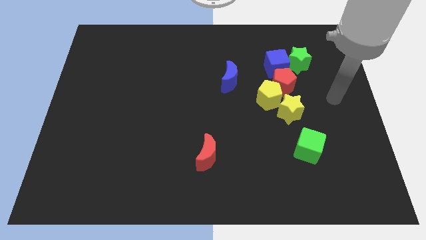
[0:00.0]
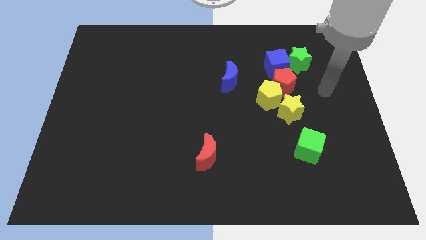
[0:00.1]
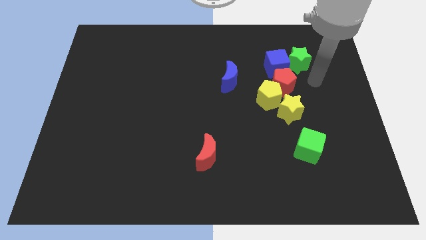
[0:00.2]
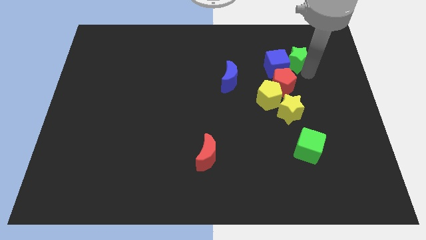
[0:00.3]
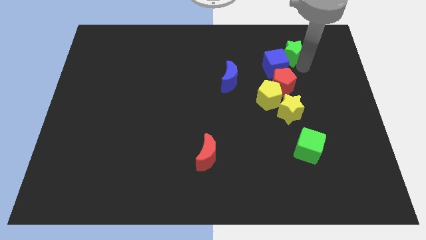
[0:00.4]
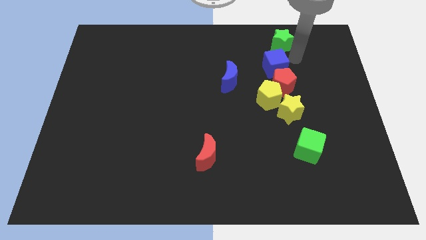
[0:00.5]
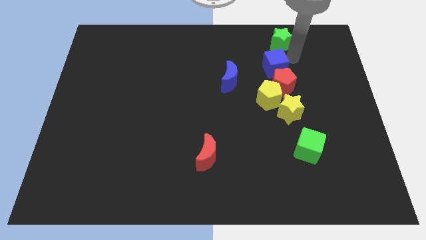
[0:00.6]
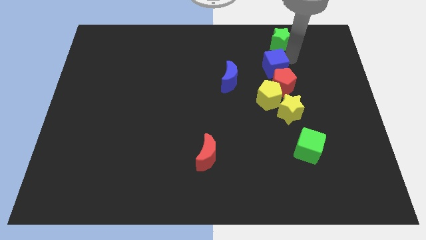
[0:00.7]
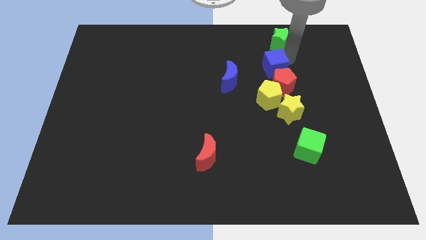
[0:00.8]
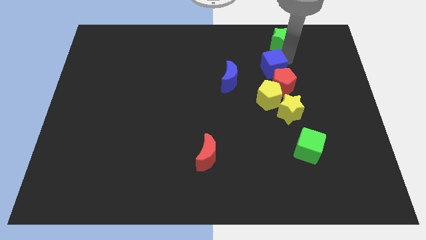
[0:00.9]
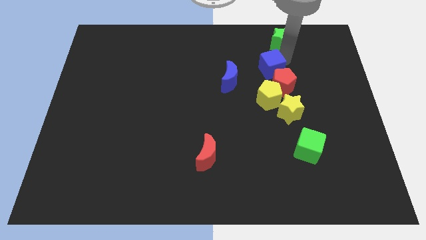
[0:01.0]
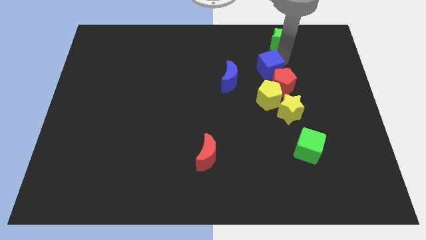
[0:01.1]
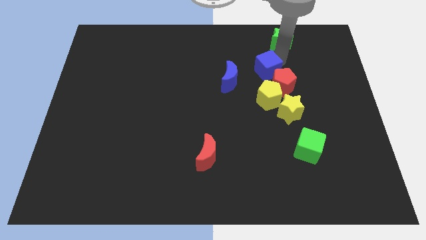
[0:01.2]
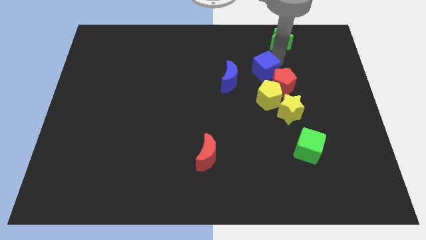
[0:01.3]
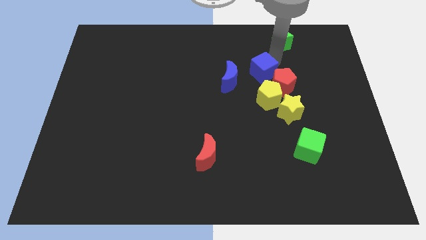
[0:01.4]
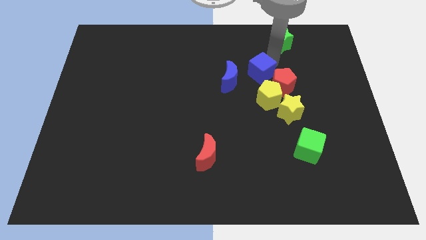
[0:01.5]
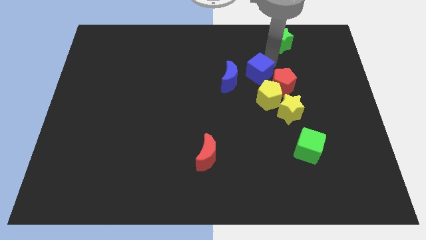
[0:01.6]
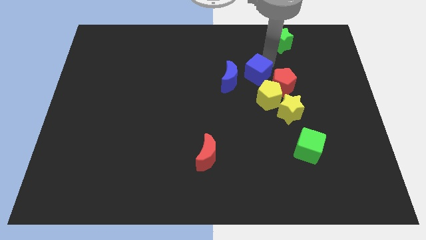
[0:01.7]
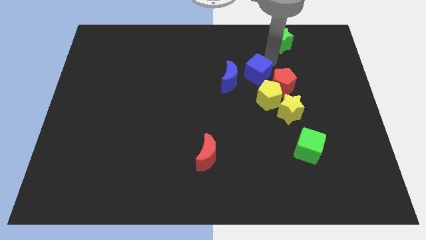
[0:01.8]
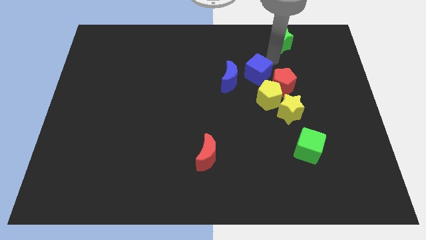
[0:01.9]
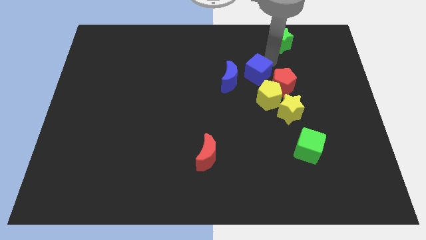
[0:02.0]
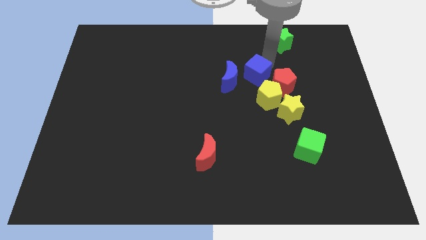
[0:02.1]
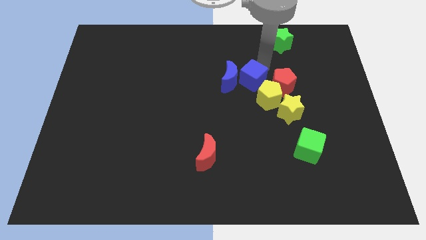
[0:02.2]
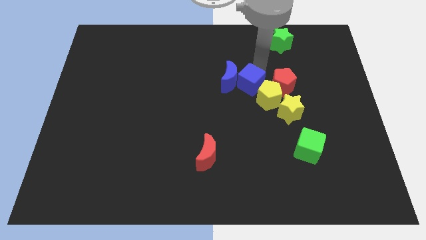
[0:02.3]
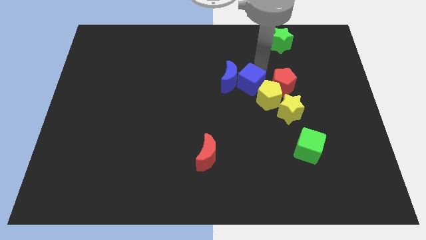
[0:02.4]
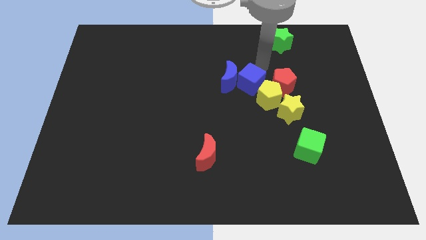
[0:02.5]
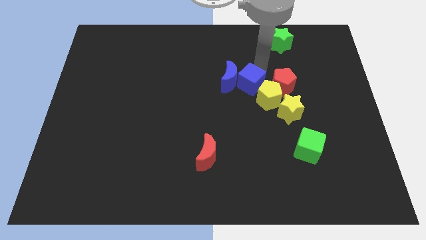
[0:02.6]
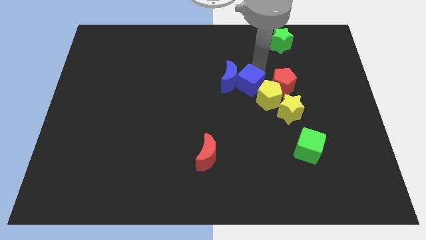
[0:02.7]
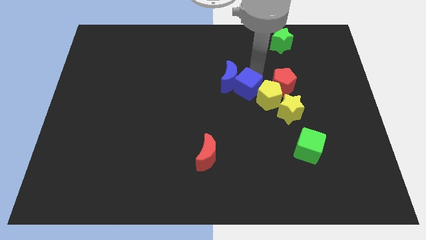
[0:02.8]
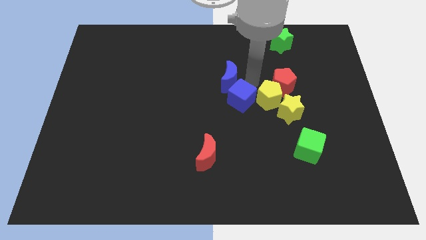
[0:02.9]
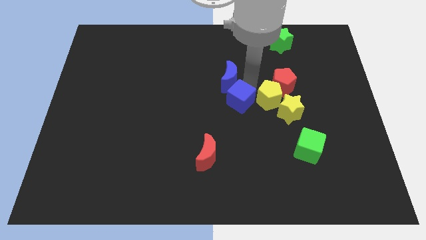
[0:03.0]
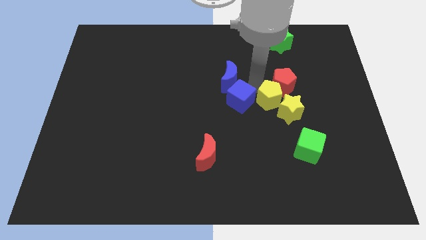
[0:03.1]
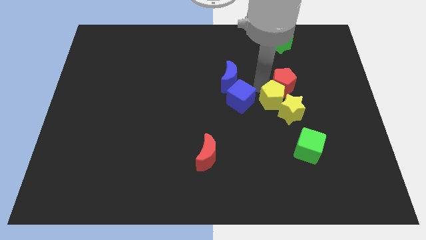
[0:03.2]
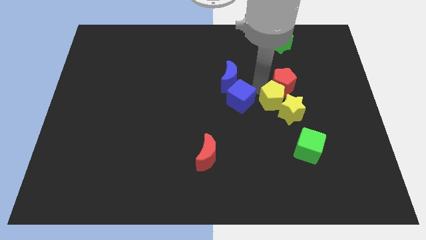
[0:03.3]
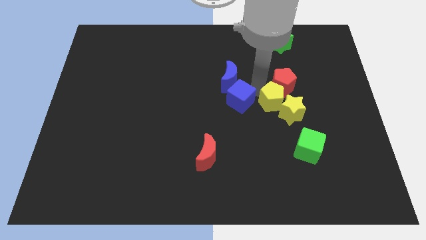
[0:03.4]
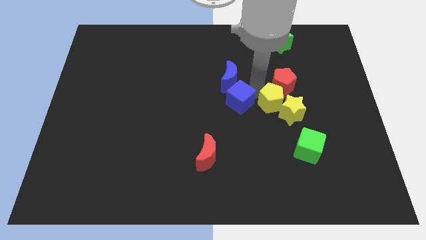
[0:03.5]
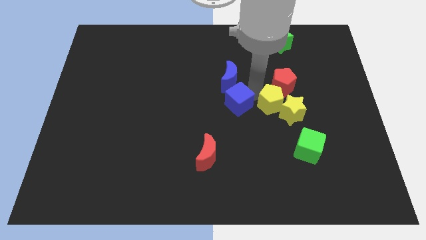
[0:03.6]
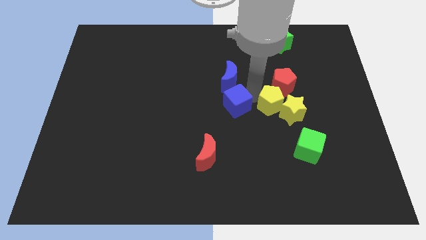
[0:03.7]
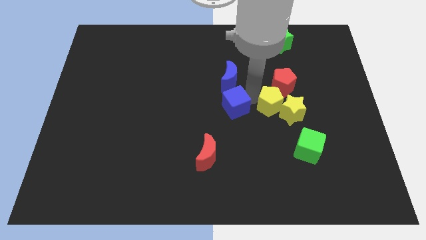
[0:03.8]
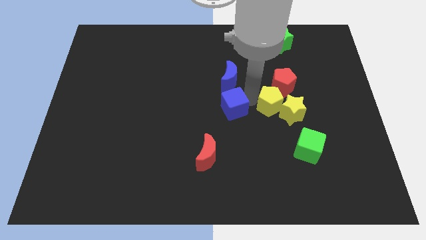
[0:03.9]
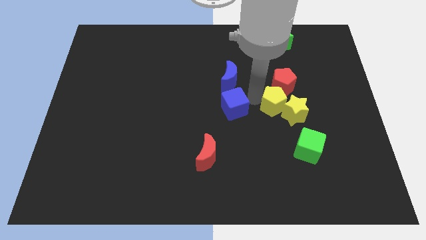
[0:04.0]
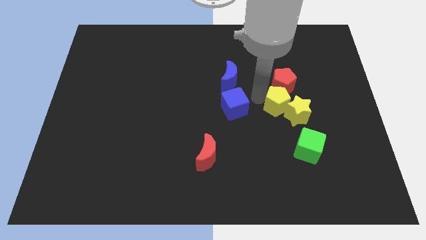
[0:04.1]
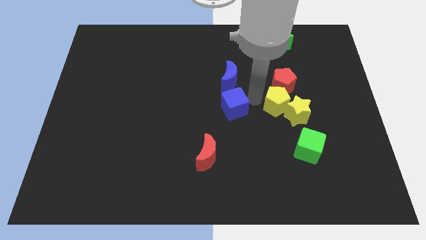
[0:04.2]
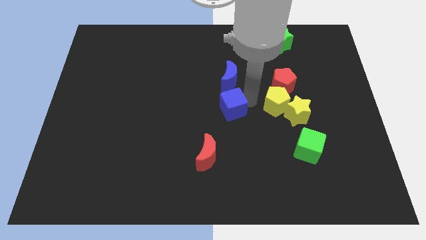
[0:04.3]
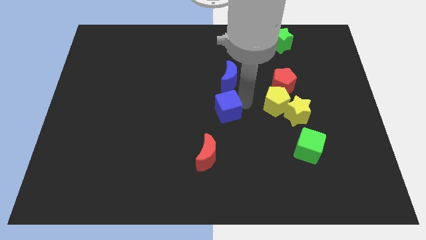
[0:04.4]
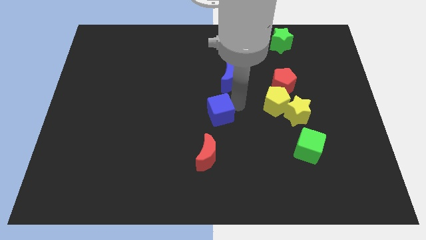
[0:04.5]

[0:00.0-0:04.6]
slide the blue cube diagonally down and left

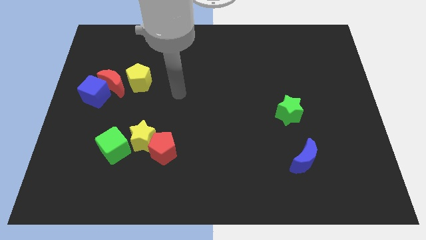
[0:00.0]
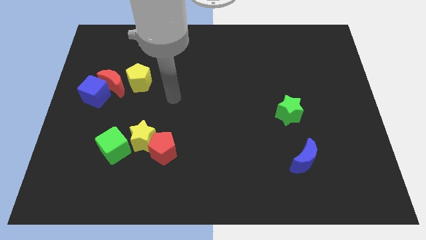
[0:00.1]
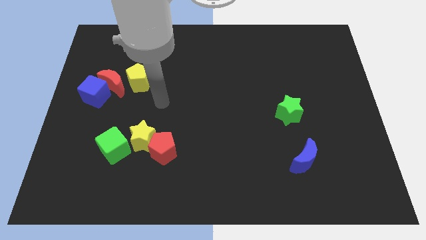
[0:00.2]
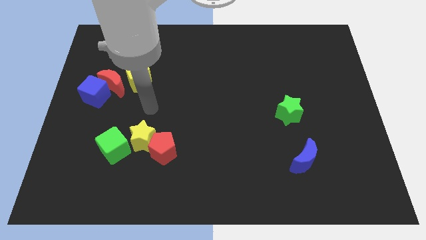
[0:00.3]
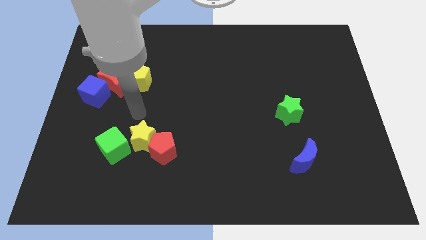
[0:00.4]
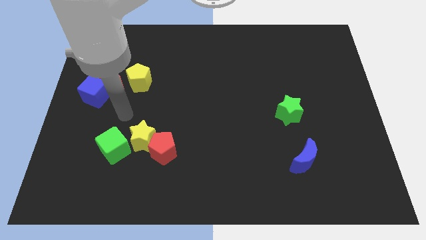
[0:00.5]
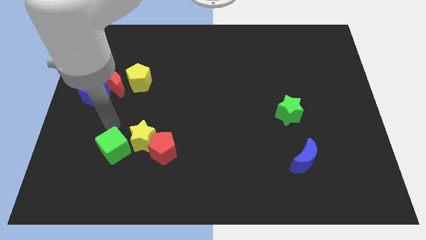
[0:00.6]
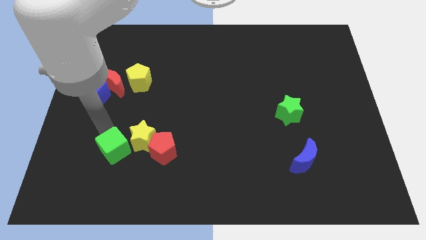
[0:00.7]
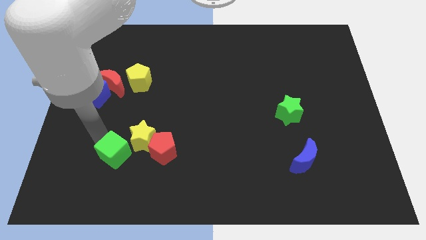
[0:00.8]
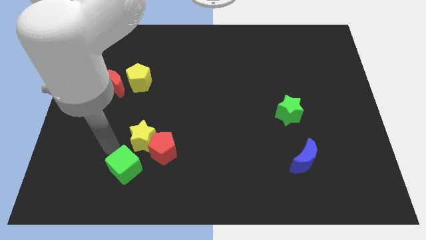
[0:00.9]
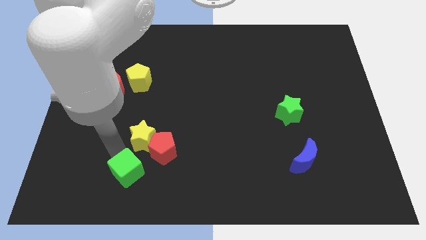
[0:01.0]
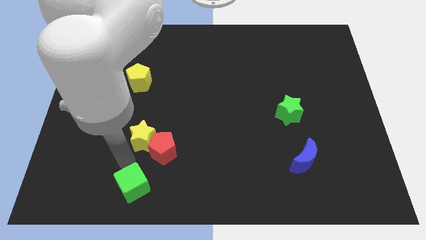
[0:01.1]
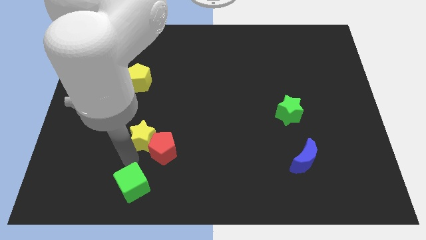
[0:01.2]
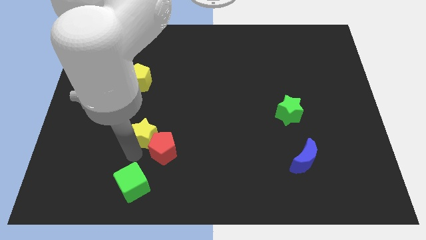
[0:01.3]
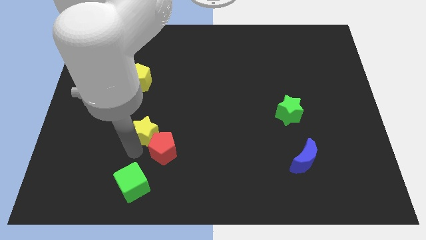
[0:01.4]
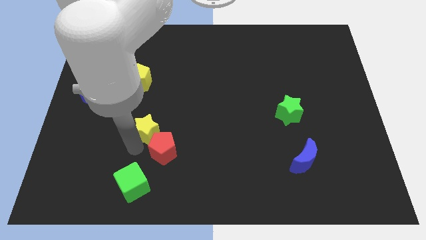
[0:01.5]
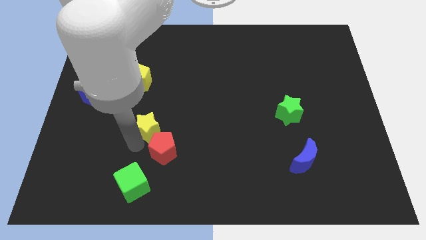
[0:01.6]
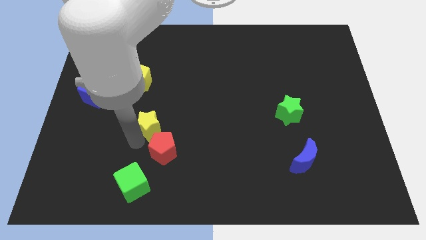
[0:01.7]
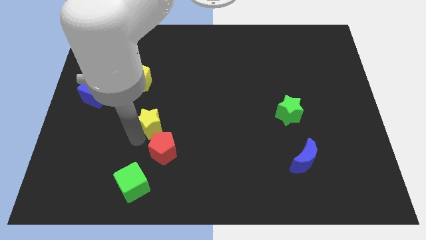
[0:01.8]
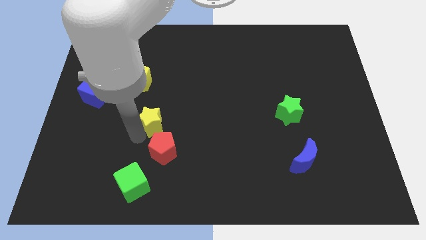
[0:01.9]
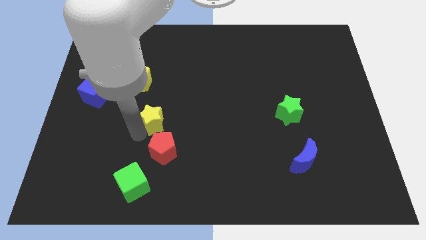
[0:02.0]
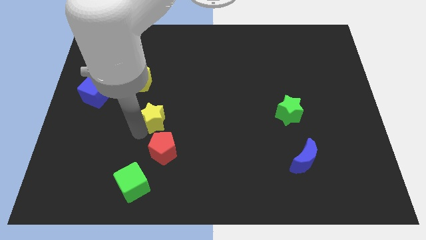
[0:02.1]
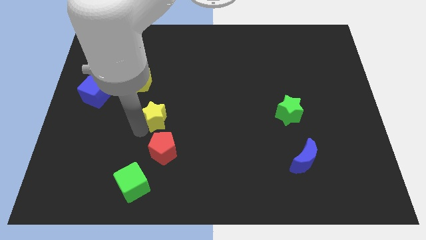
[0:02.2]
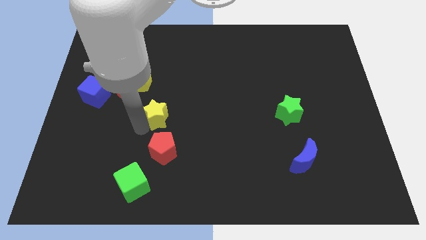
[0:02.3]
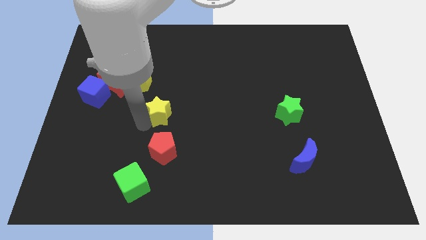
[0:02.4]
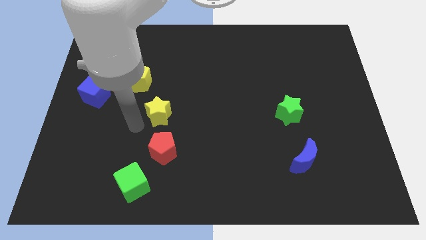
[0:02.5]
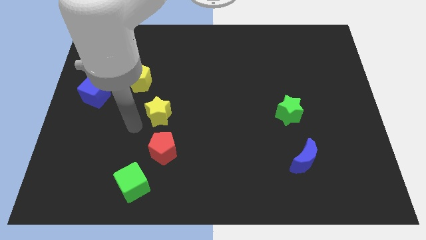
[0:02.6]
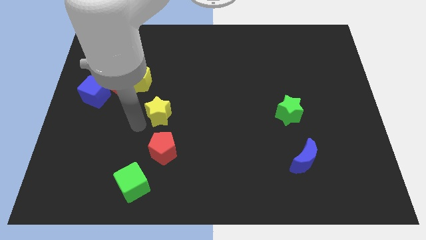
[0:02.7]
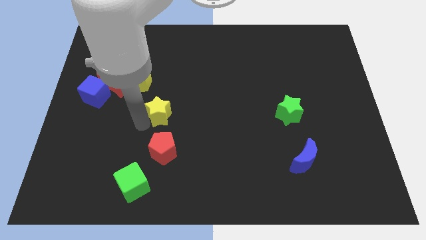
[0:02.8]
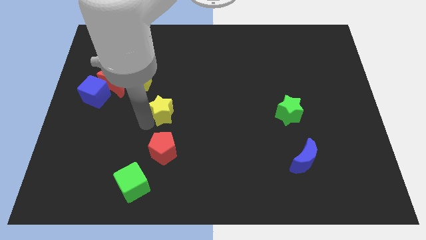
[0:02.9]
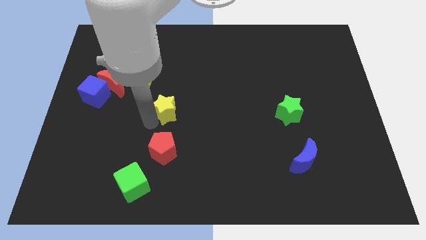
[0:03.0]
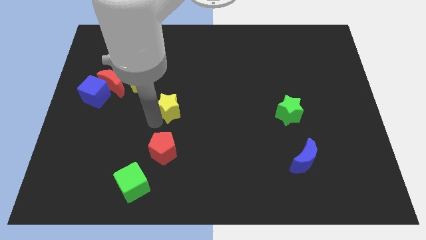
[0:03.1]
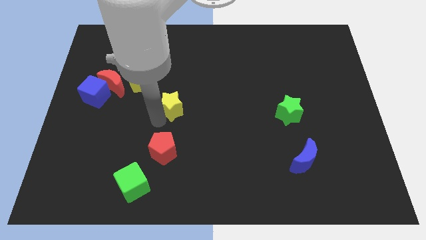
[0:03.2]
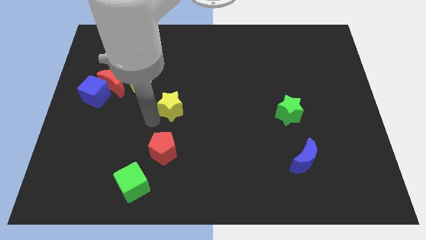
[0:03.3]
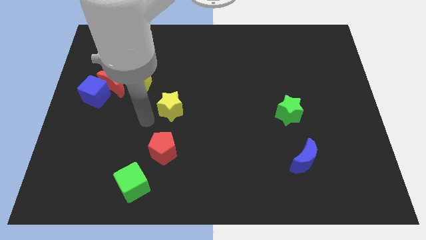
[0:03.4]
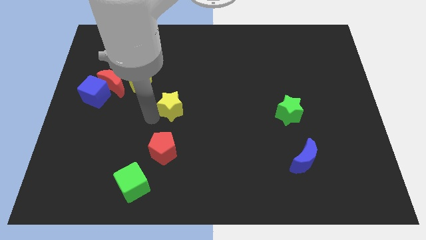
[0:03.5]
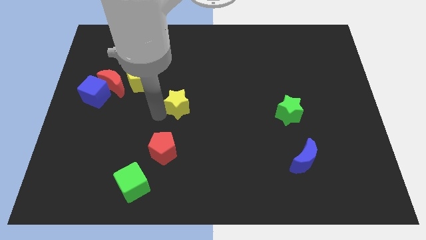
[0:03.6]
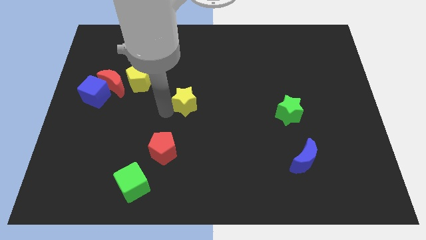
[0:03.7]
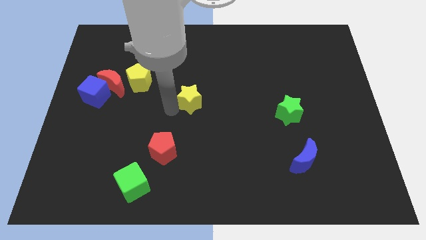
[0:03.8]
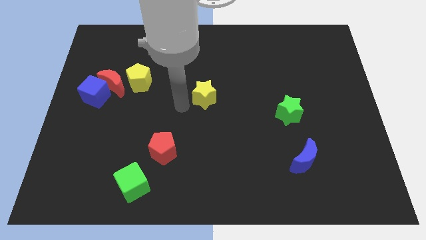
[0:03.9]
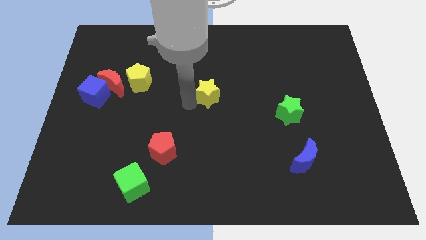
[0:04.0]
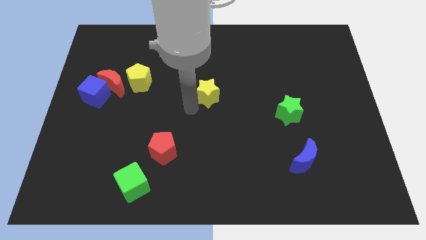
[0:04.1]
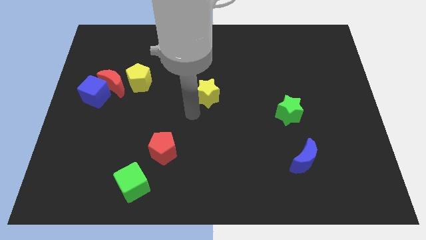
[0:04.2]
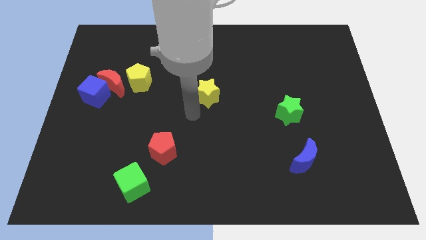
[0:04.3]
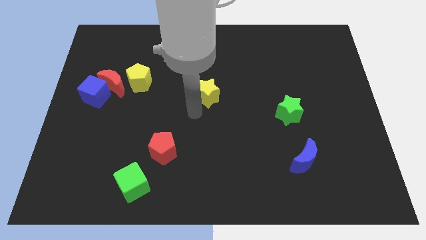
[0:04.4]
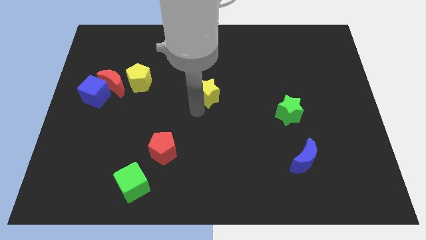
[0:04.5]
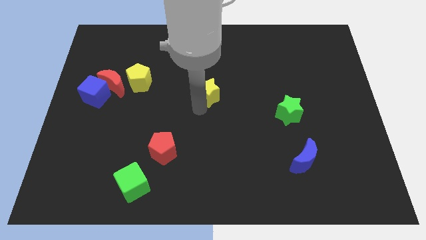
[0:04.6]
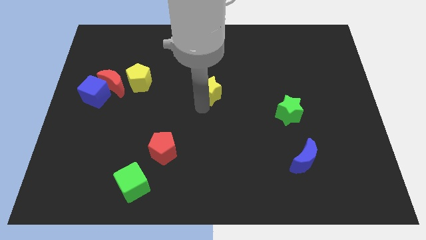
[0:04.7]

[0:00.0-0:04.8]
move the yellow star upwards and right diagonally
